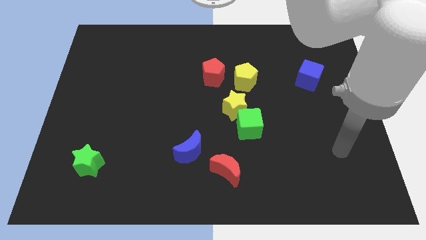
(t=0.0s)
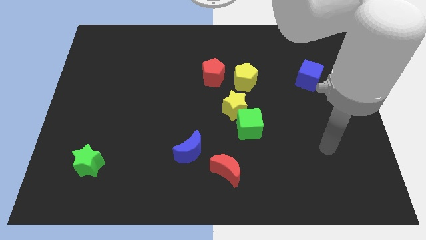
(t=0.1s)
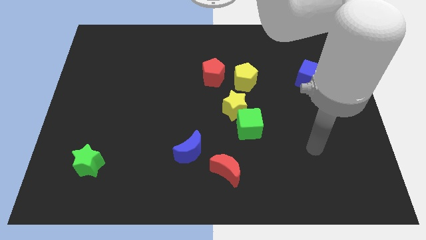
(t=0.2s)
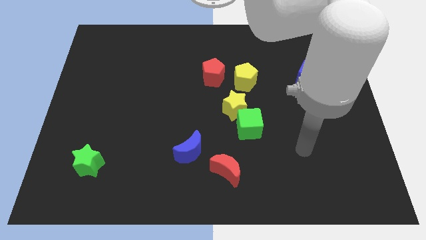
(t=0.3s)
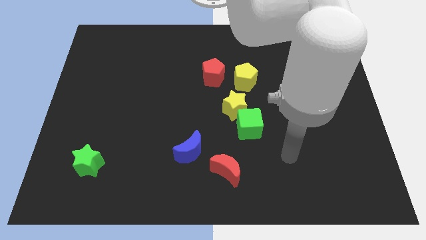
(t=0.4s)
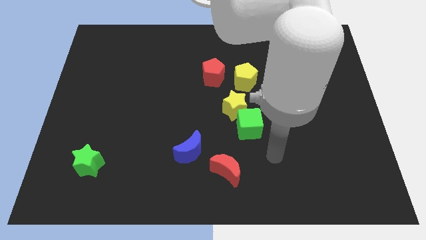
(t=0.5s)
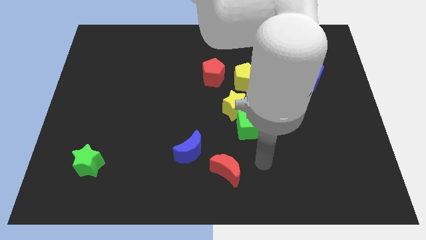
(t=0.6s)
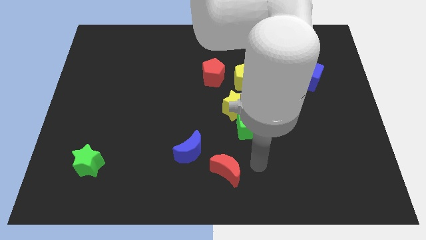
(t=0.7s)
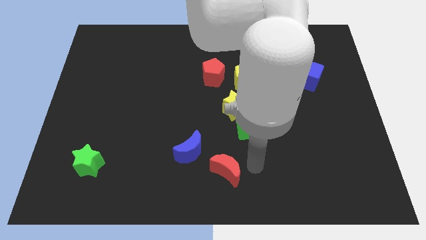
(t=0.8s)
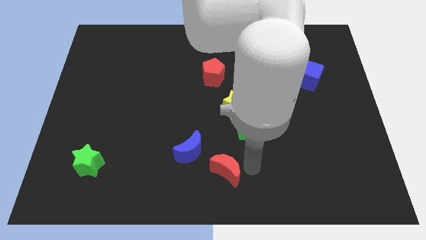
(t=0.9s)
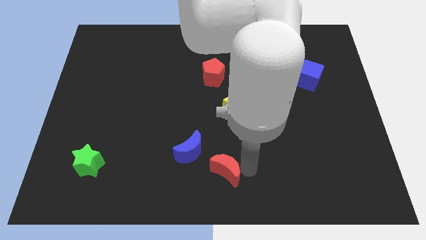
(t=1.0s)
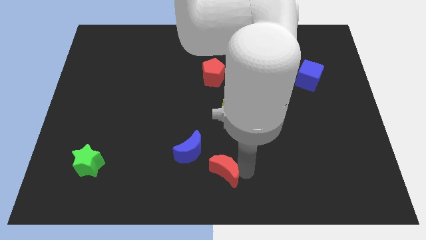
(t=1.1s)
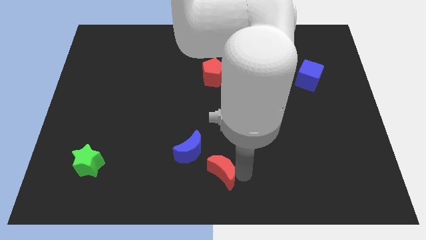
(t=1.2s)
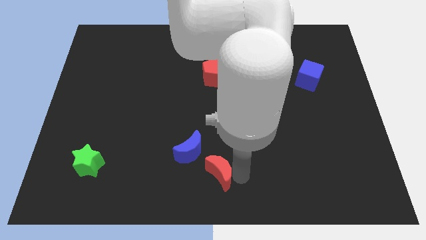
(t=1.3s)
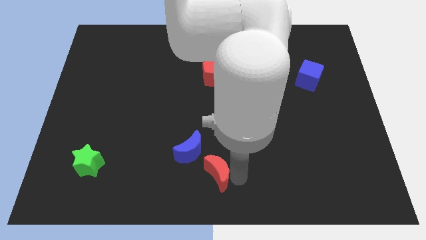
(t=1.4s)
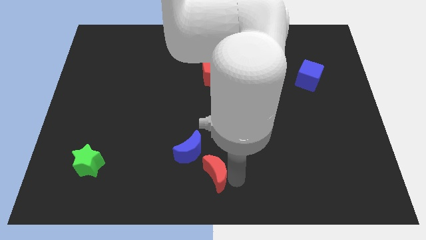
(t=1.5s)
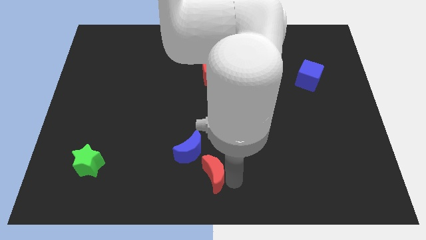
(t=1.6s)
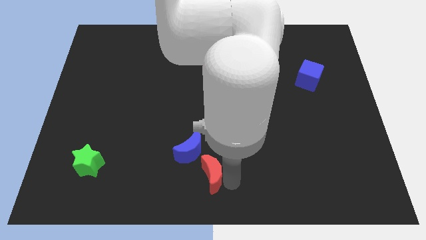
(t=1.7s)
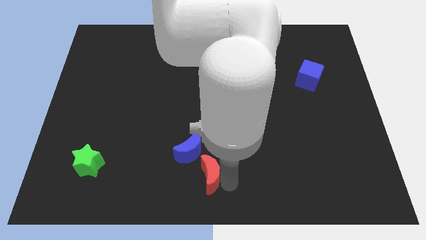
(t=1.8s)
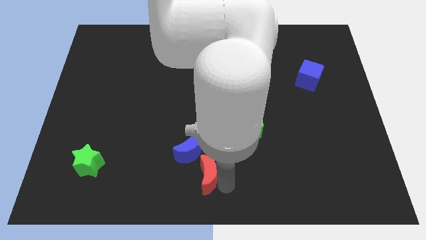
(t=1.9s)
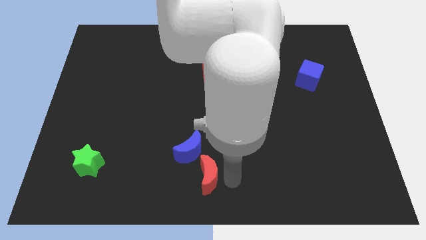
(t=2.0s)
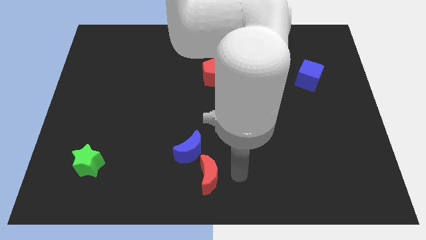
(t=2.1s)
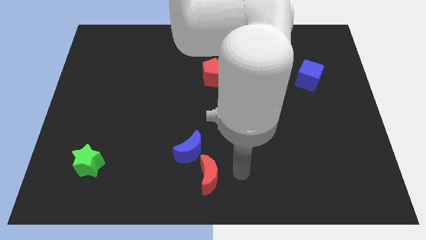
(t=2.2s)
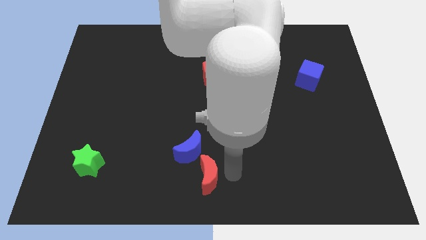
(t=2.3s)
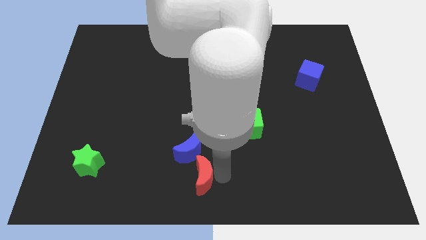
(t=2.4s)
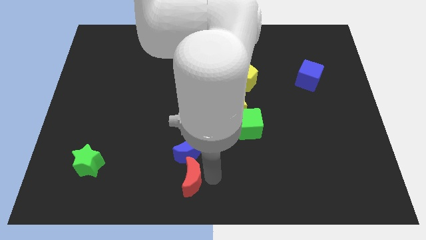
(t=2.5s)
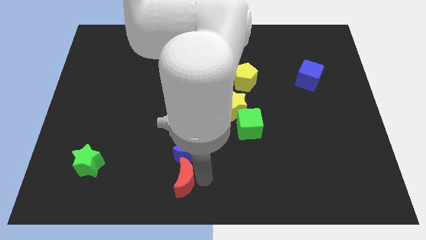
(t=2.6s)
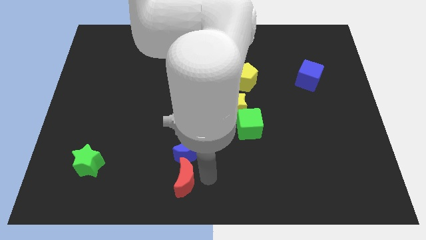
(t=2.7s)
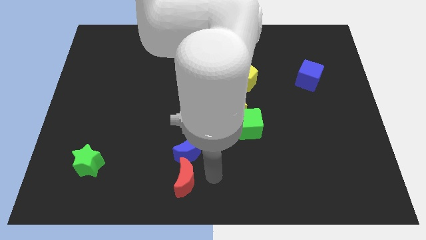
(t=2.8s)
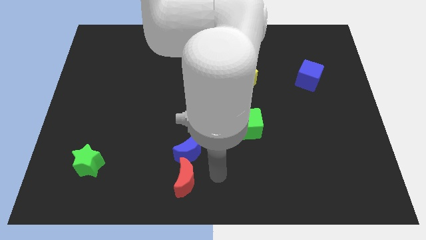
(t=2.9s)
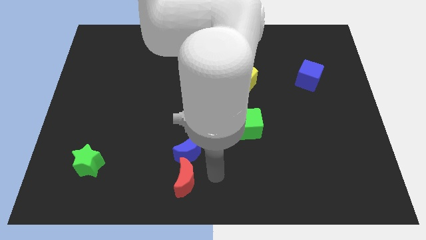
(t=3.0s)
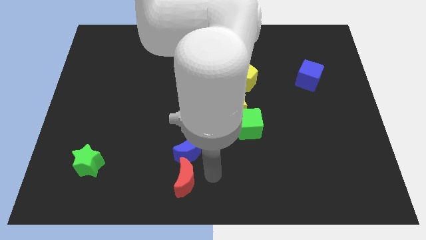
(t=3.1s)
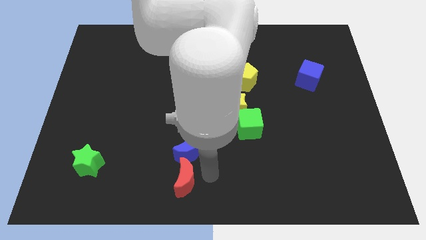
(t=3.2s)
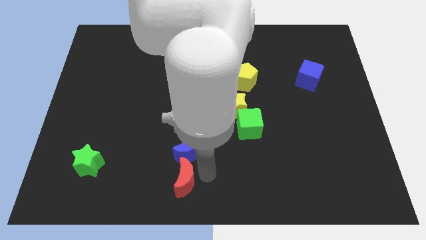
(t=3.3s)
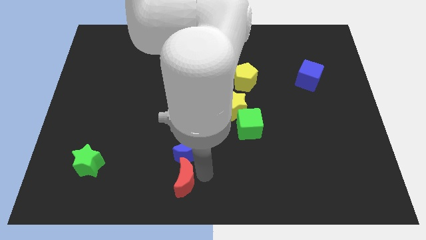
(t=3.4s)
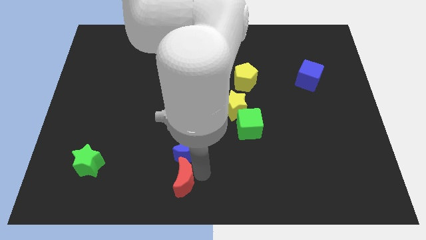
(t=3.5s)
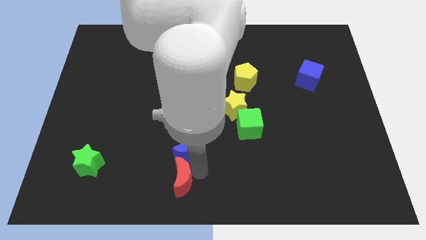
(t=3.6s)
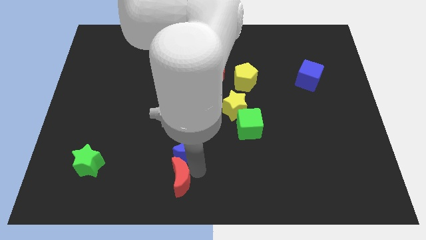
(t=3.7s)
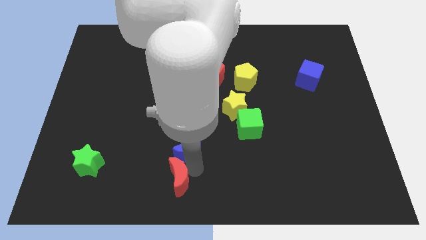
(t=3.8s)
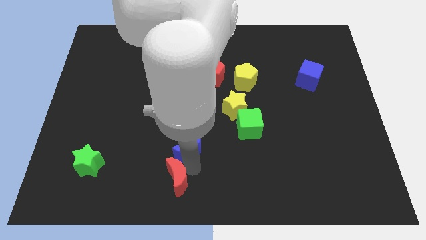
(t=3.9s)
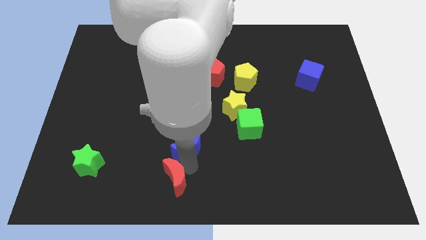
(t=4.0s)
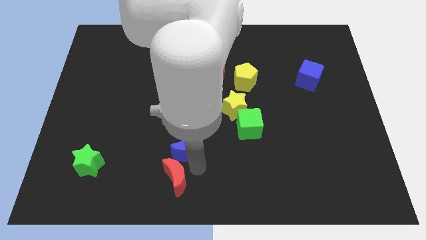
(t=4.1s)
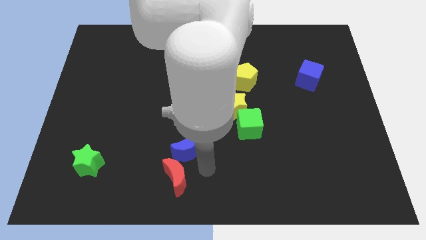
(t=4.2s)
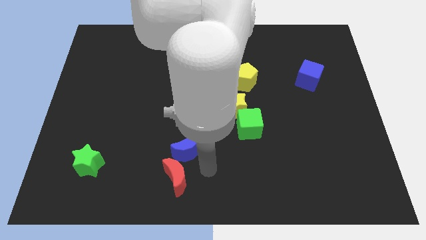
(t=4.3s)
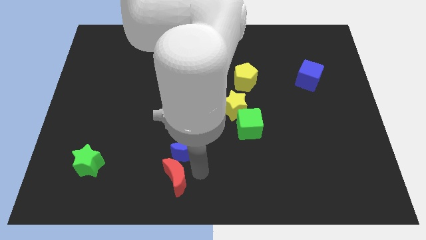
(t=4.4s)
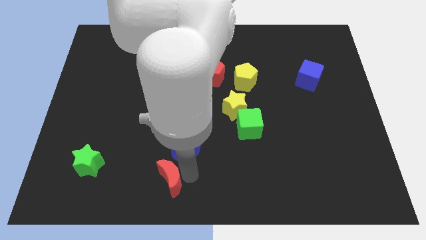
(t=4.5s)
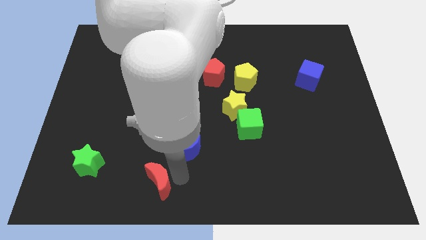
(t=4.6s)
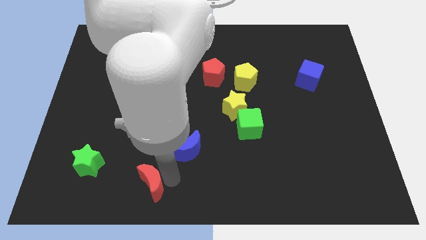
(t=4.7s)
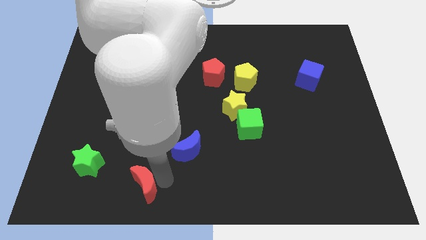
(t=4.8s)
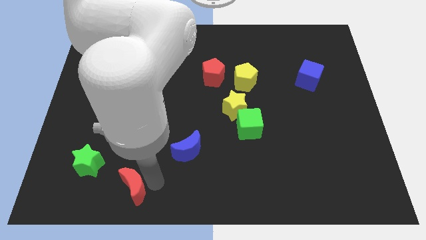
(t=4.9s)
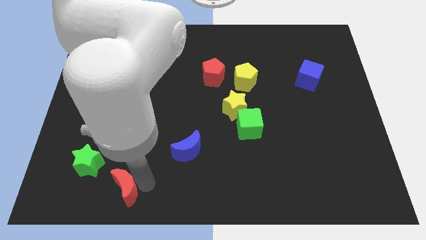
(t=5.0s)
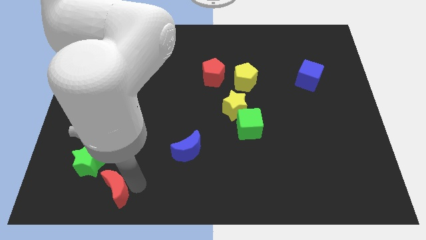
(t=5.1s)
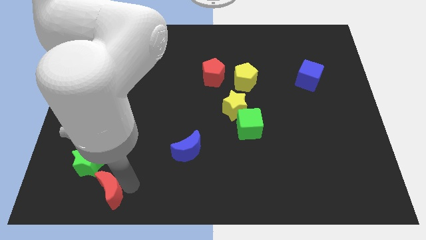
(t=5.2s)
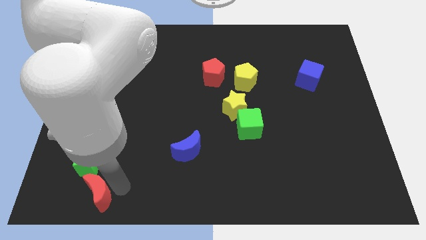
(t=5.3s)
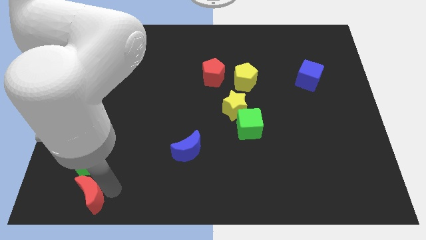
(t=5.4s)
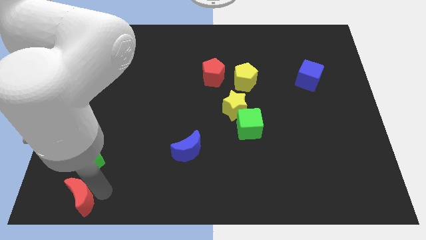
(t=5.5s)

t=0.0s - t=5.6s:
put the red moon to the bottom left corner
